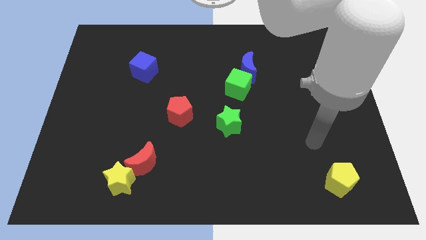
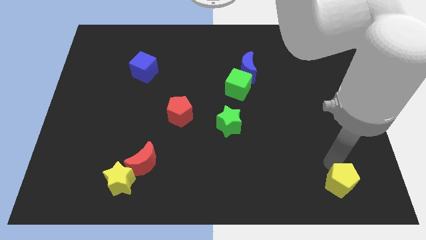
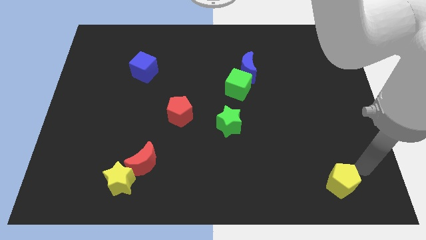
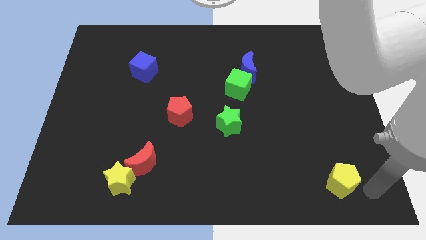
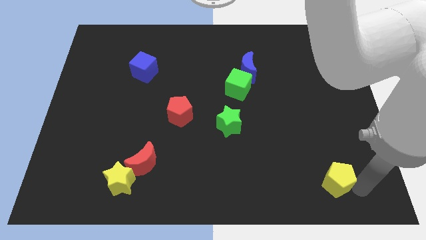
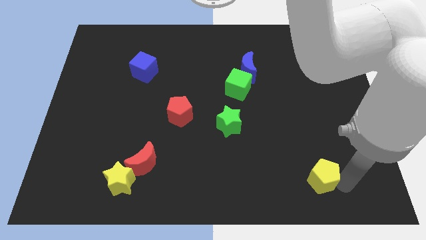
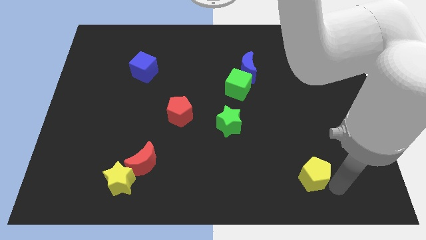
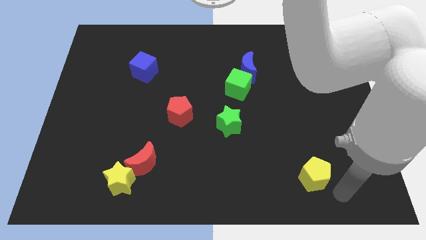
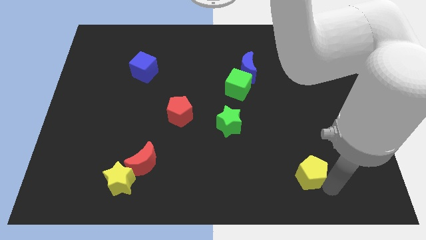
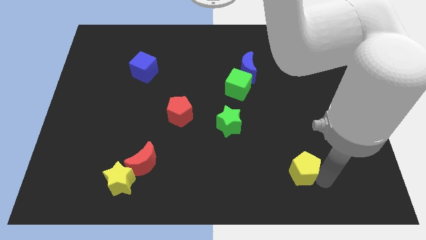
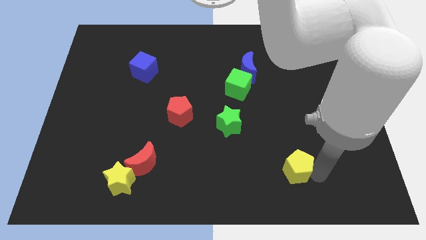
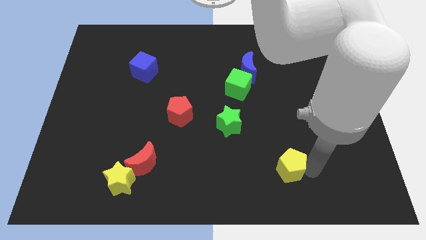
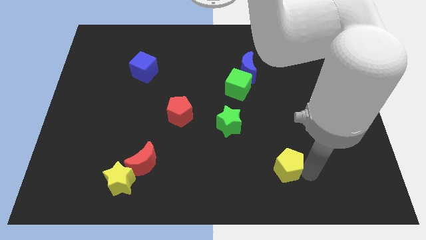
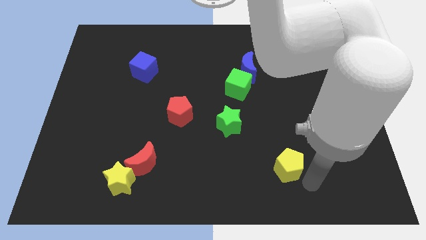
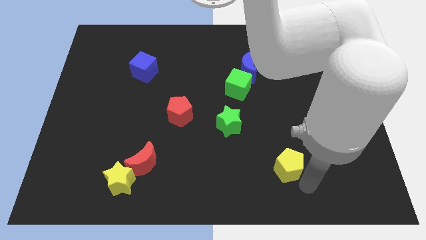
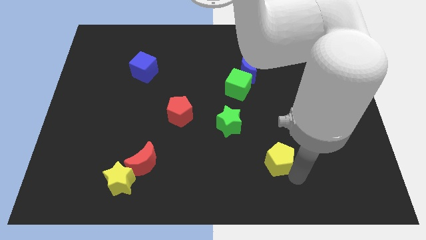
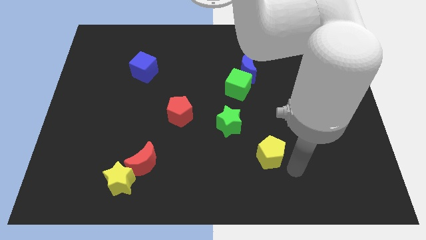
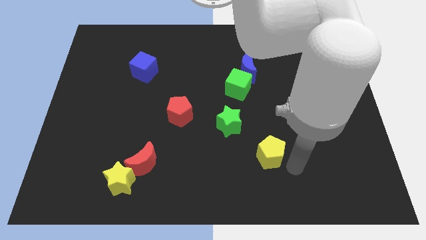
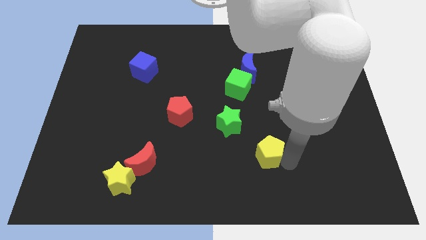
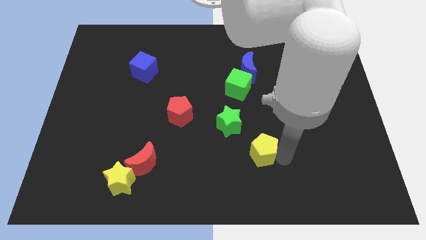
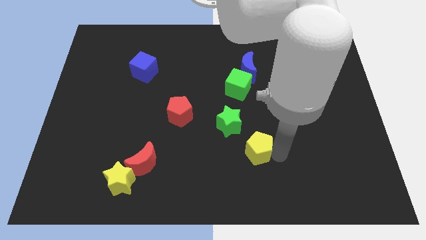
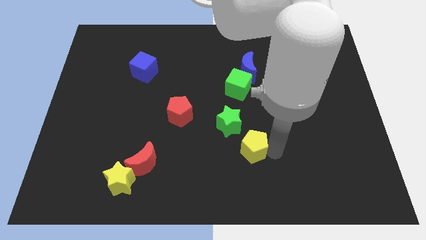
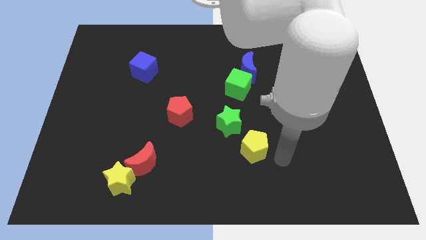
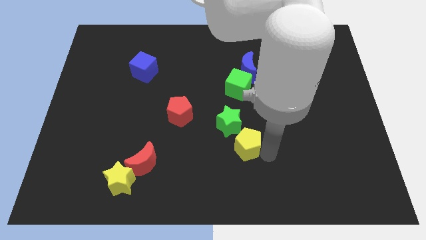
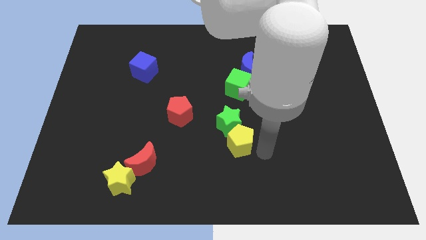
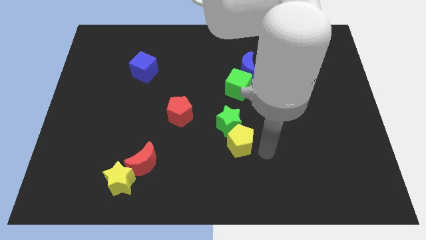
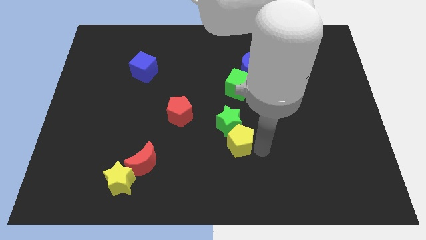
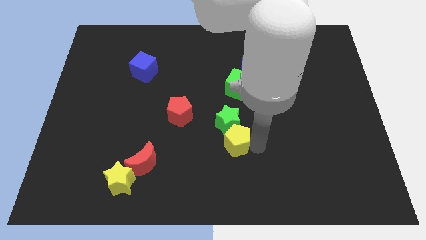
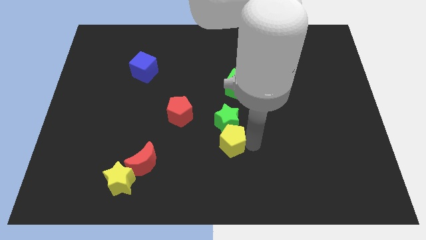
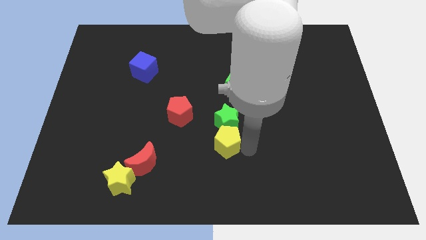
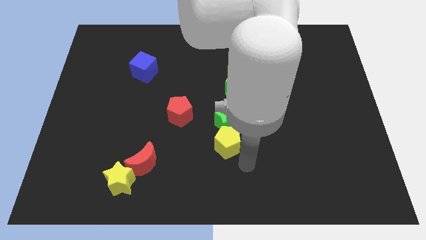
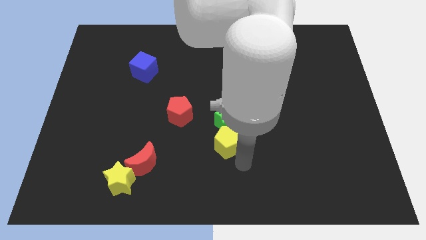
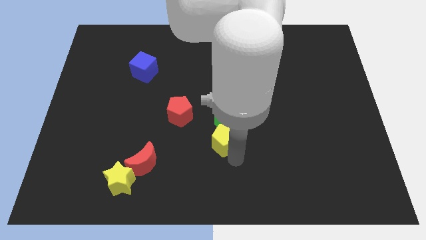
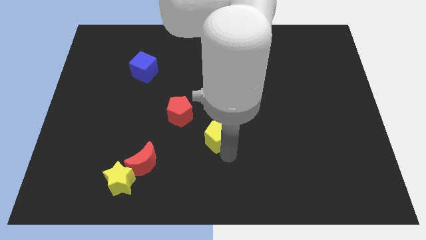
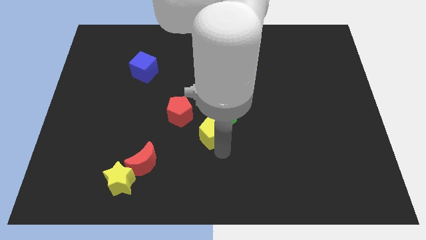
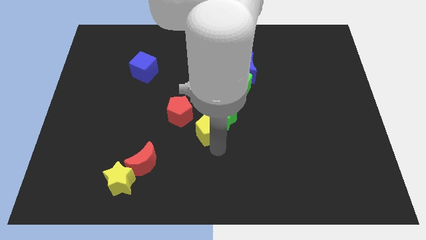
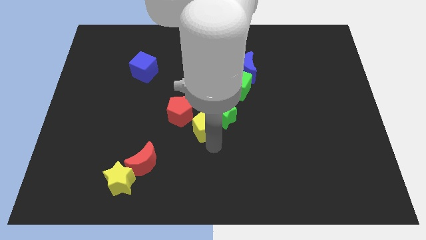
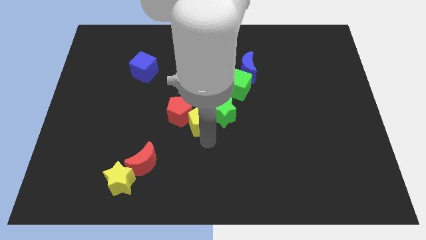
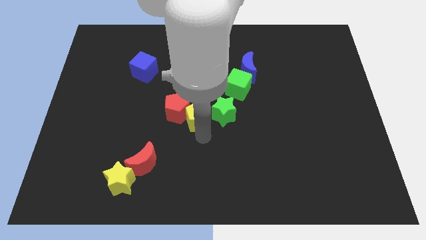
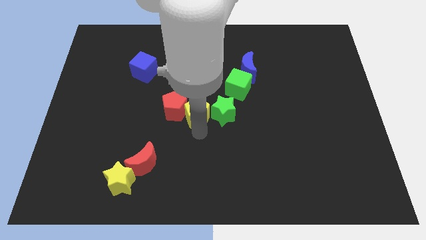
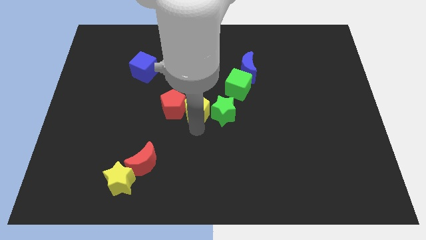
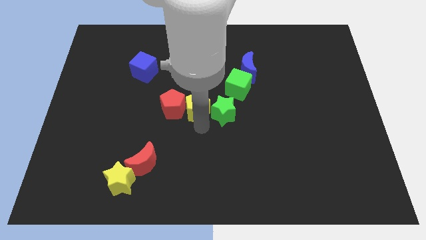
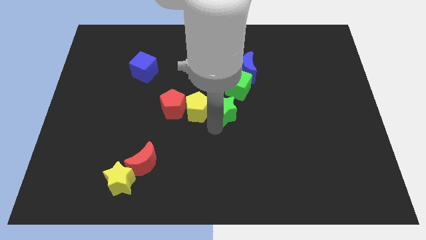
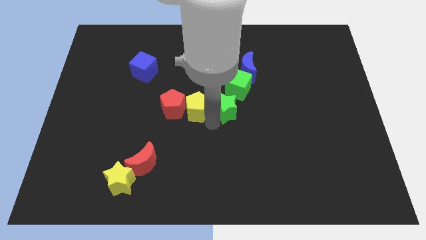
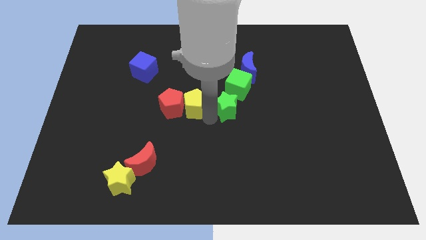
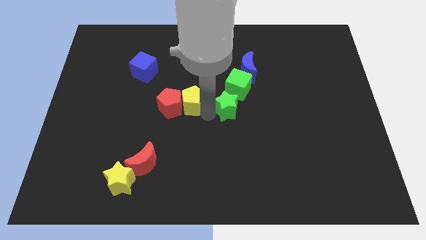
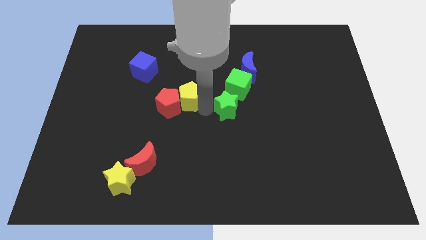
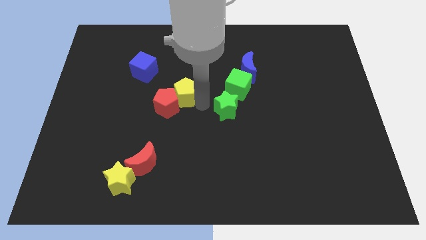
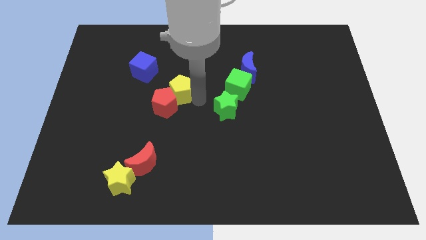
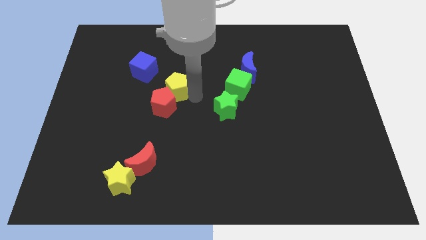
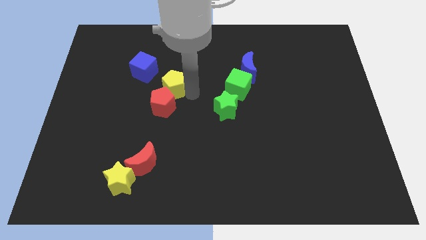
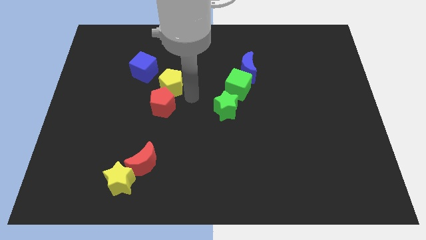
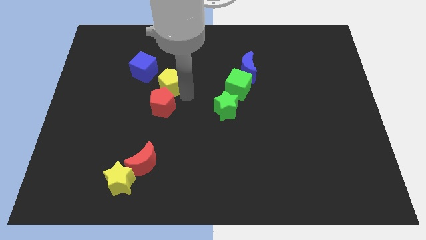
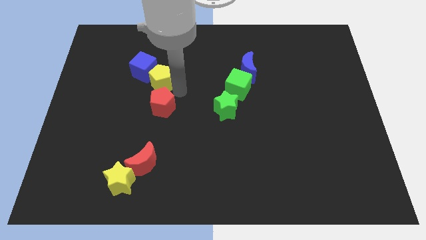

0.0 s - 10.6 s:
put the yellow pentagon close to the blue cube

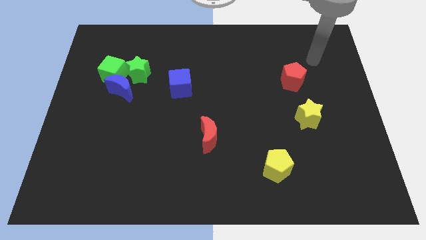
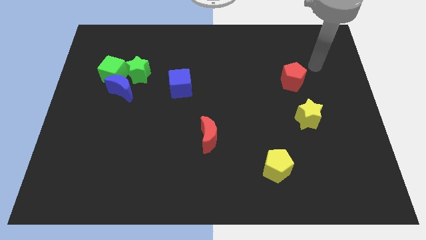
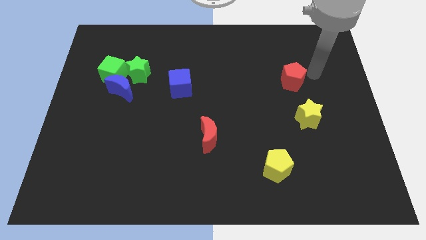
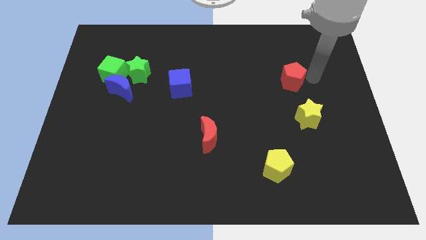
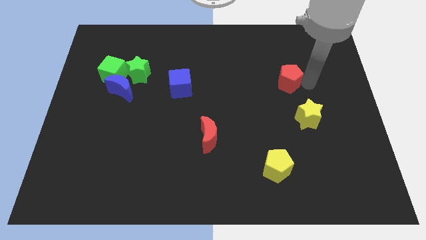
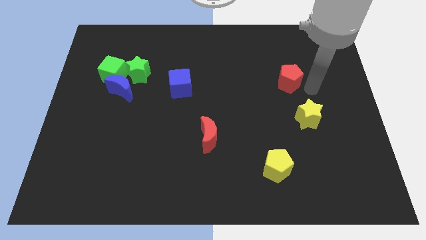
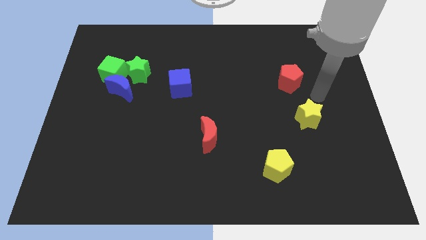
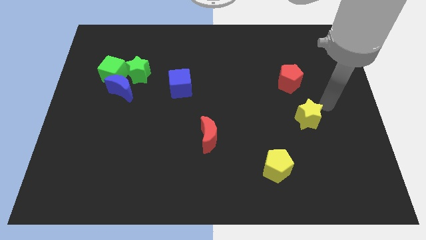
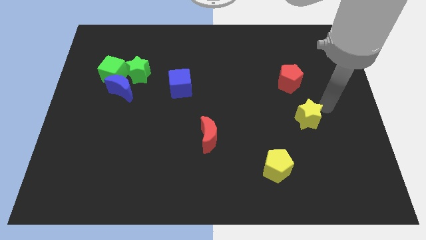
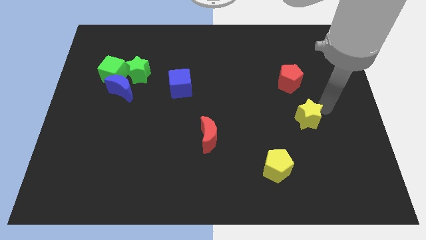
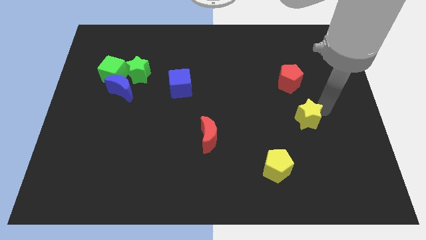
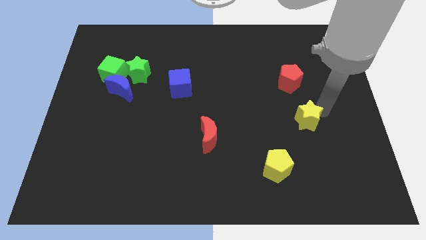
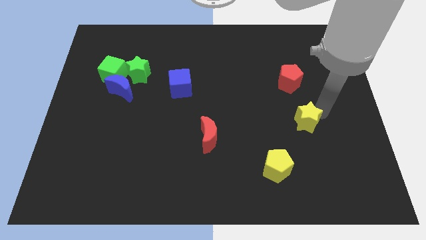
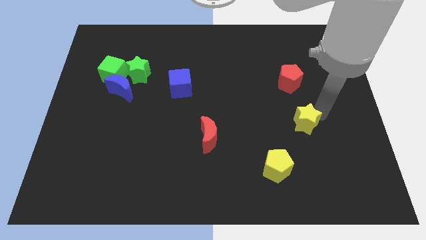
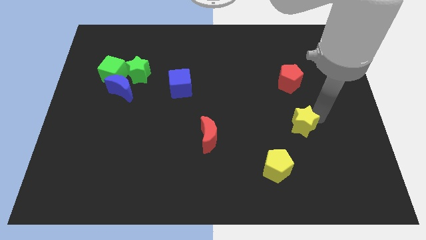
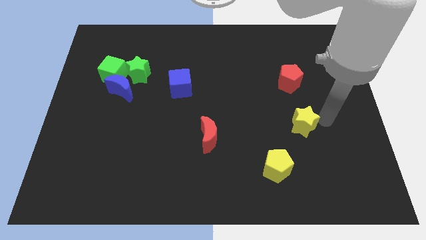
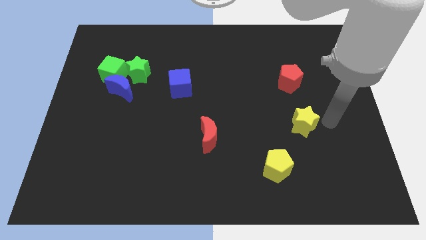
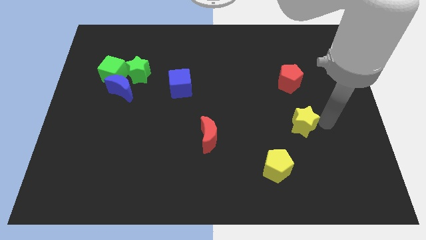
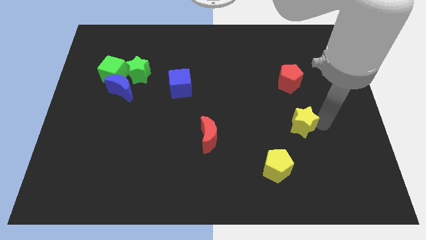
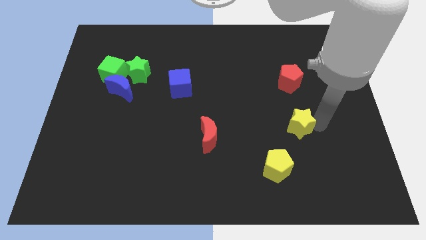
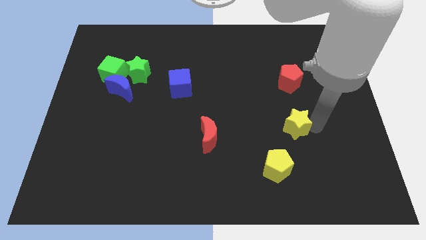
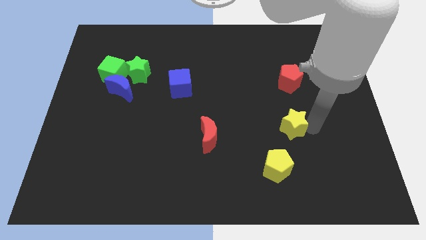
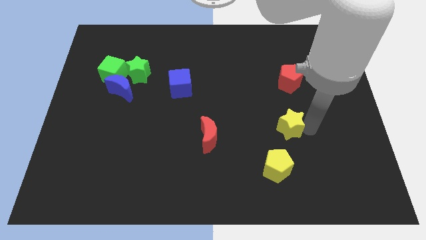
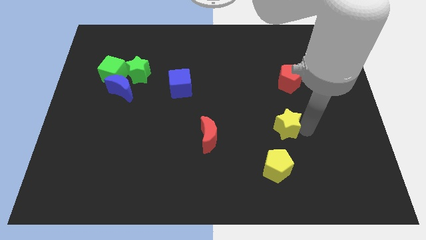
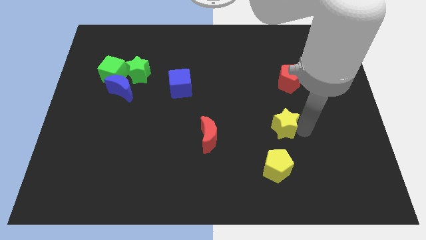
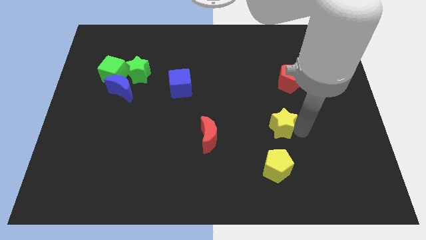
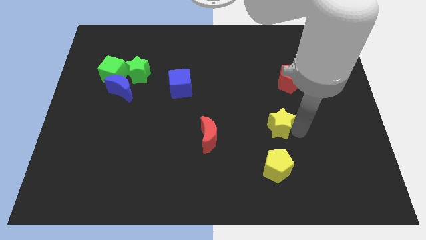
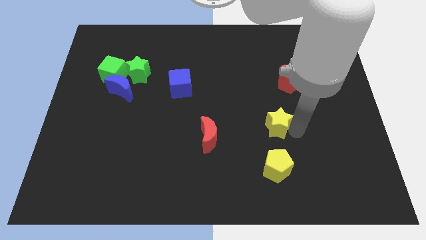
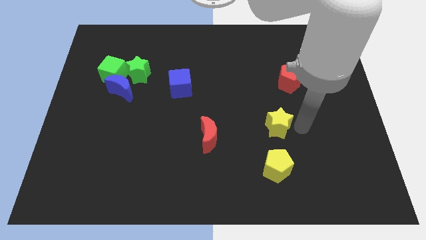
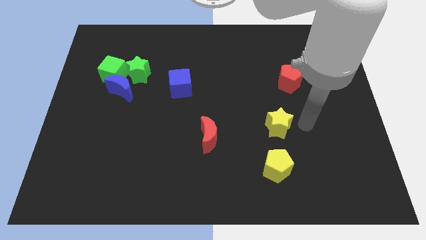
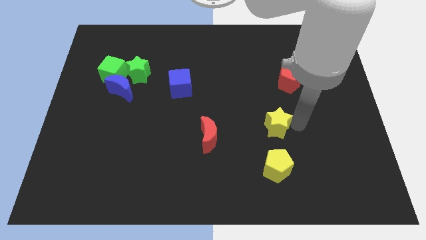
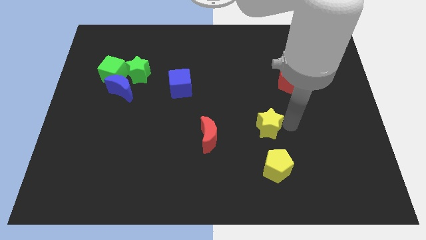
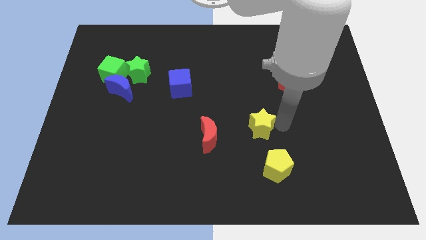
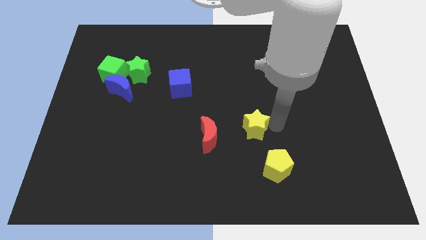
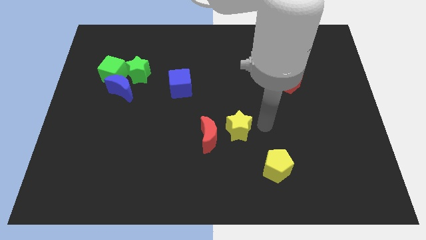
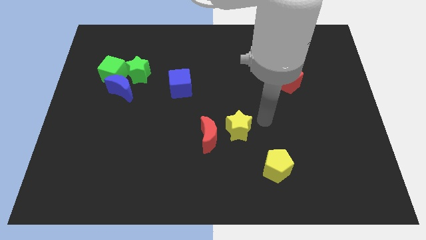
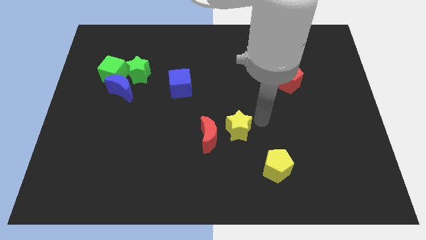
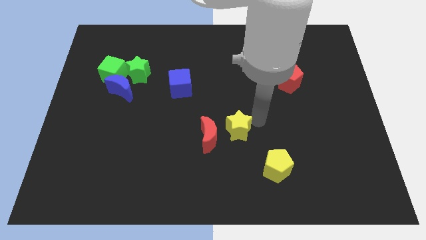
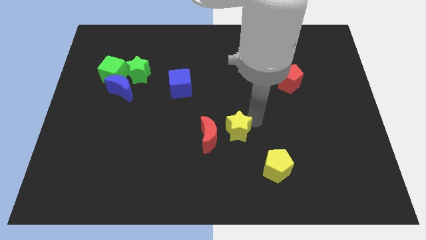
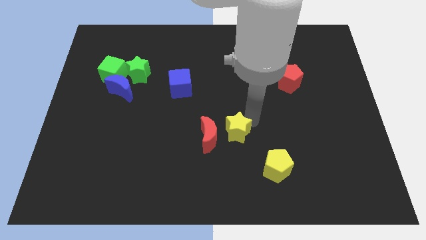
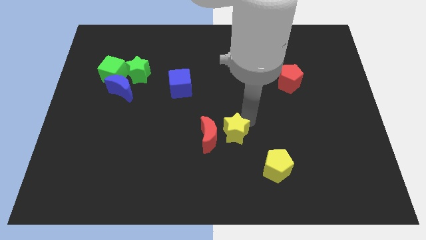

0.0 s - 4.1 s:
move the yellow star towards the red moon
